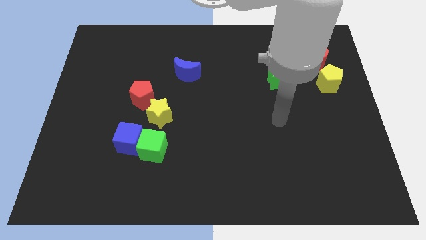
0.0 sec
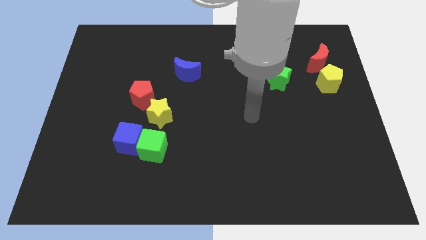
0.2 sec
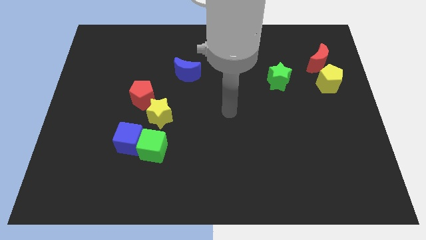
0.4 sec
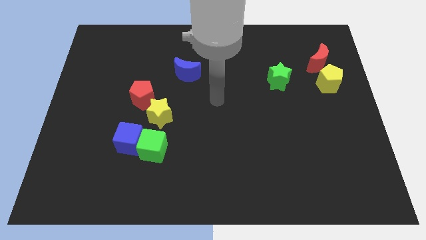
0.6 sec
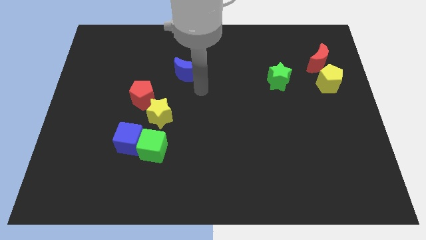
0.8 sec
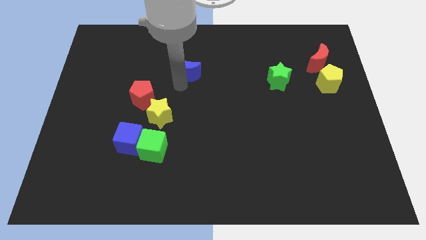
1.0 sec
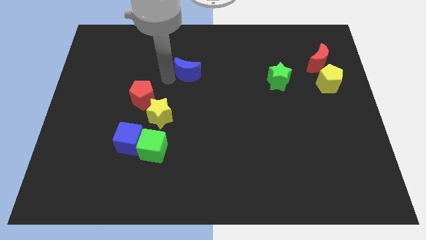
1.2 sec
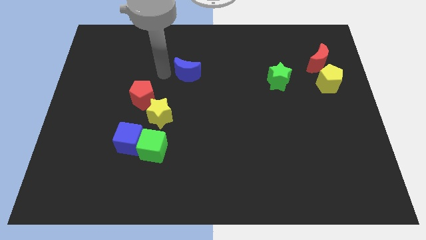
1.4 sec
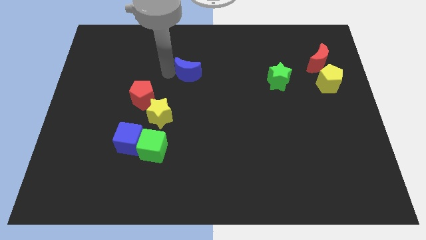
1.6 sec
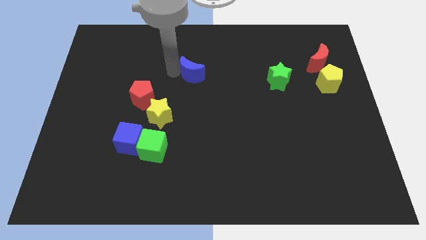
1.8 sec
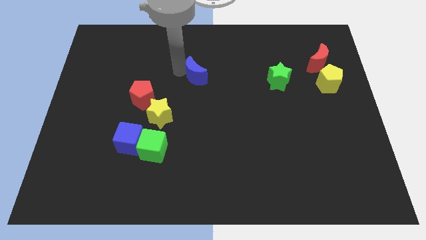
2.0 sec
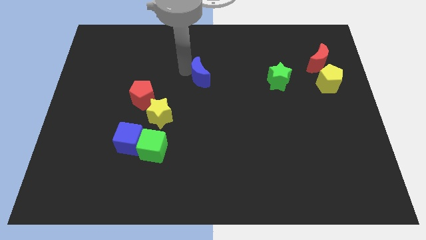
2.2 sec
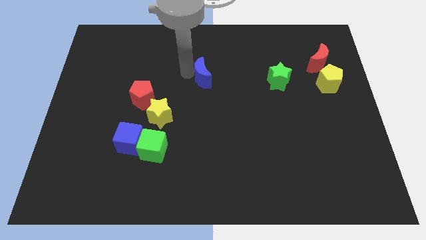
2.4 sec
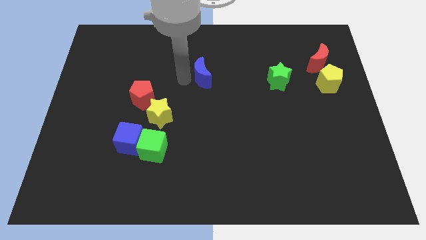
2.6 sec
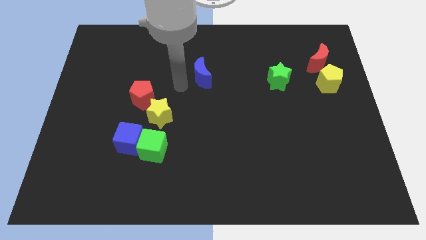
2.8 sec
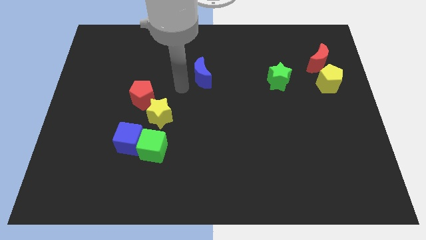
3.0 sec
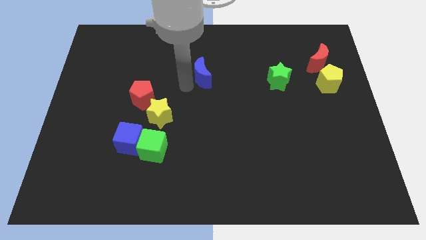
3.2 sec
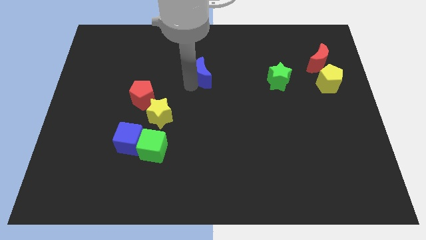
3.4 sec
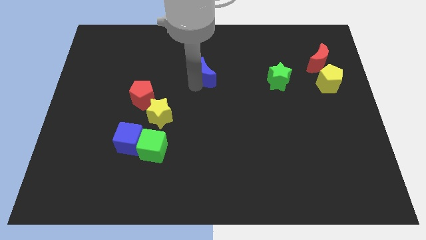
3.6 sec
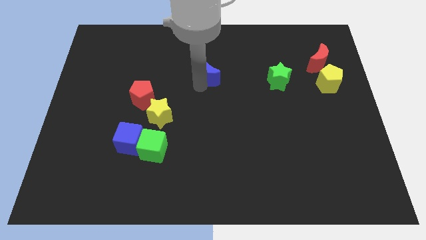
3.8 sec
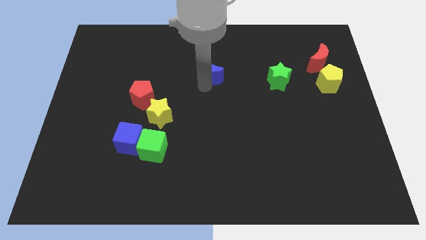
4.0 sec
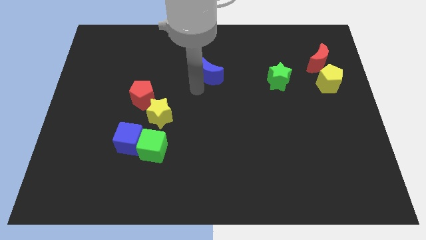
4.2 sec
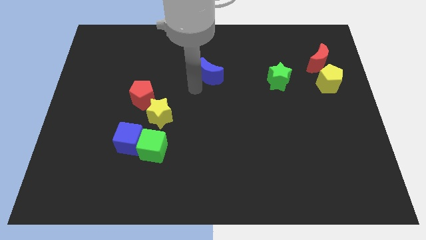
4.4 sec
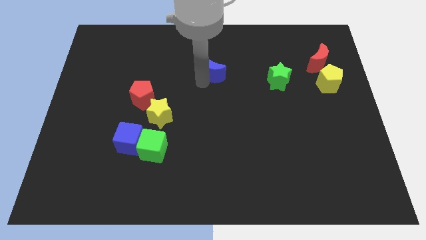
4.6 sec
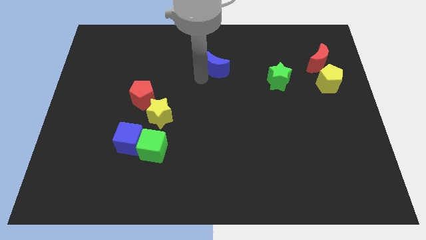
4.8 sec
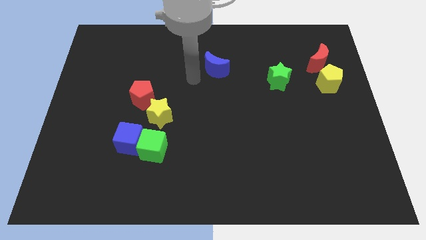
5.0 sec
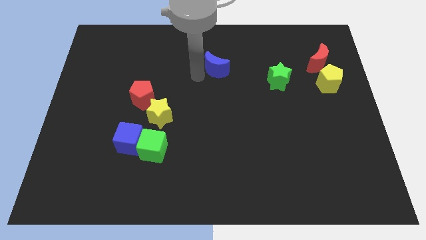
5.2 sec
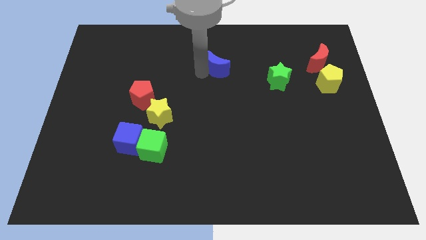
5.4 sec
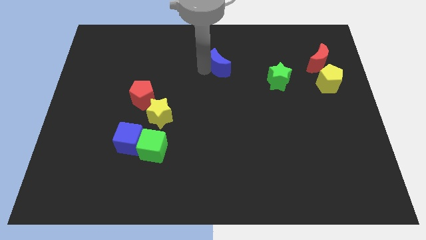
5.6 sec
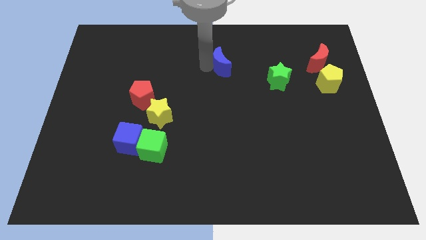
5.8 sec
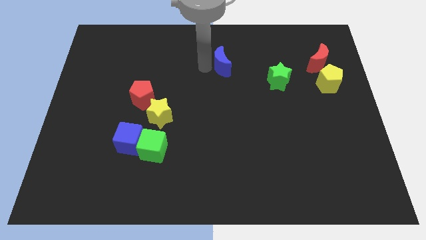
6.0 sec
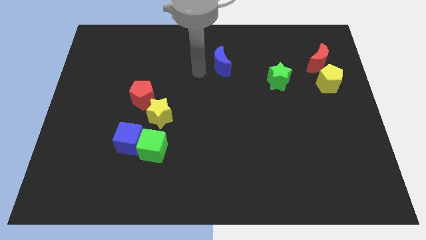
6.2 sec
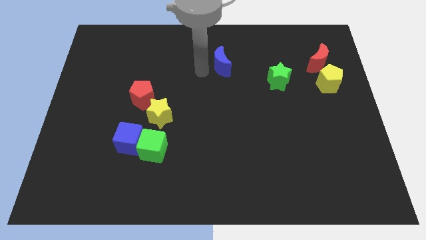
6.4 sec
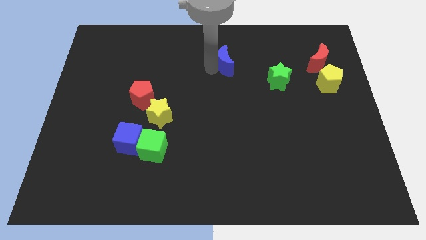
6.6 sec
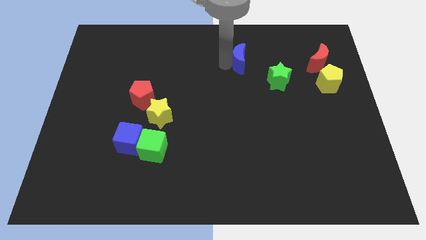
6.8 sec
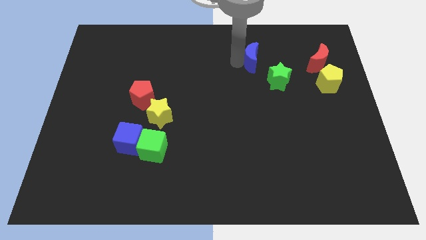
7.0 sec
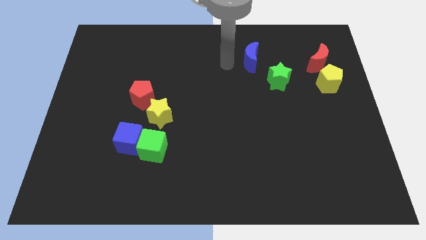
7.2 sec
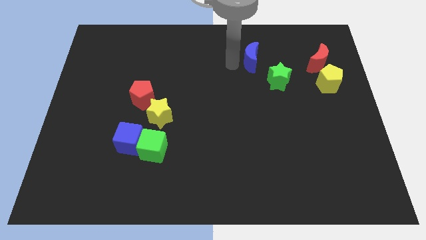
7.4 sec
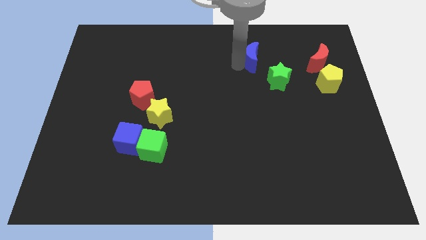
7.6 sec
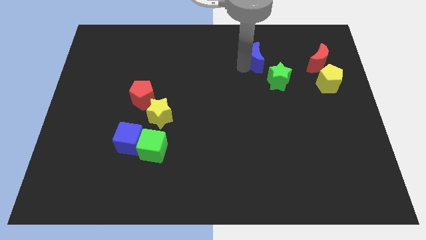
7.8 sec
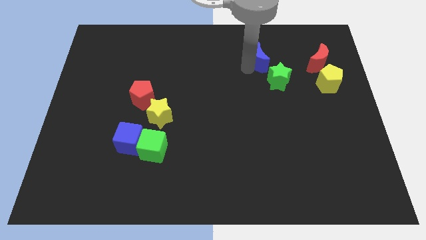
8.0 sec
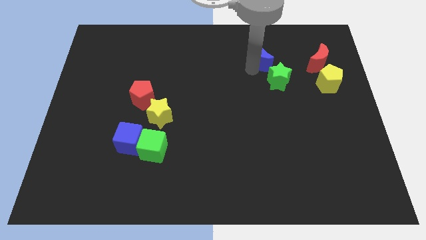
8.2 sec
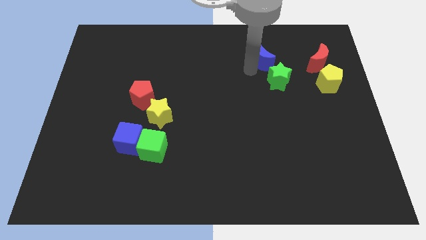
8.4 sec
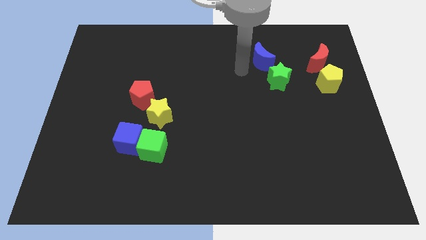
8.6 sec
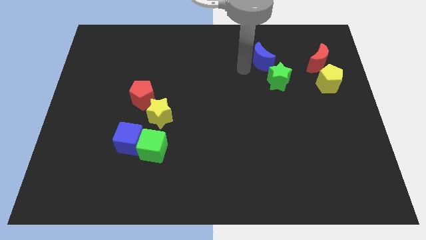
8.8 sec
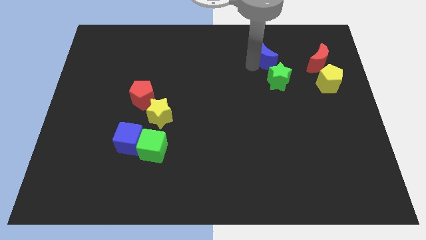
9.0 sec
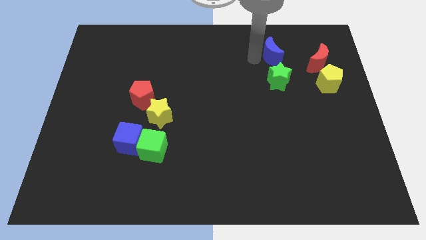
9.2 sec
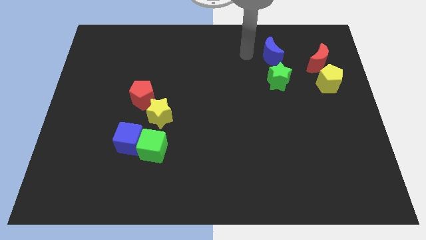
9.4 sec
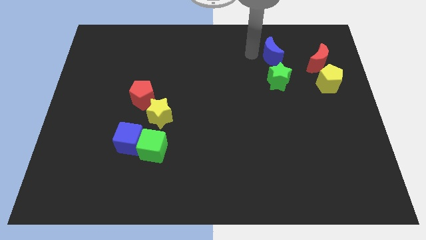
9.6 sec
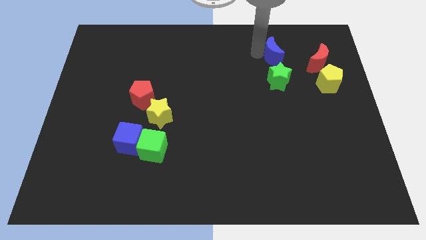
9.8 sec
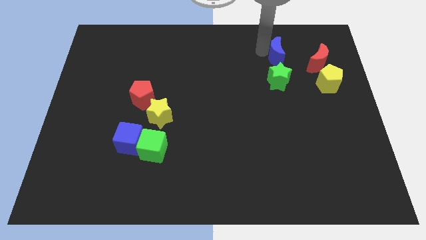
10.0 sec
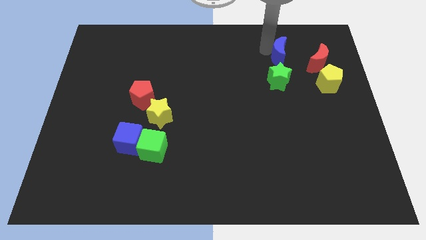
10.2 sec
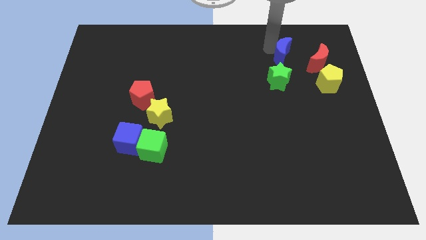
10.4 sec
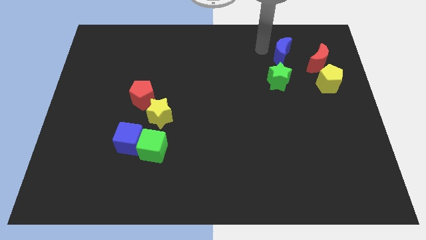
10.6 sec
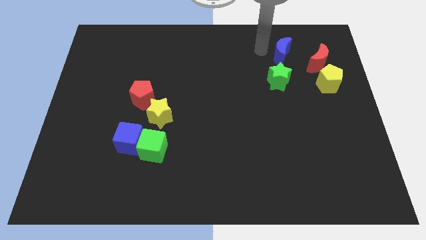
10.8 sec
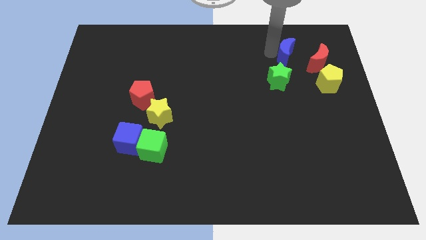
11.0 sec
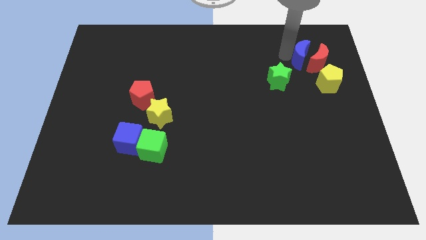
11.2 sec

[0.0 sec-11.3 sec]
put the blue moon close to the red moon

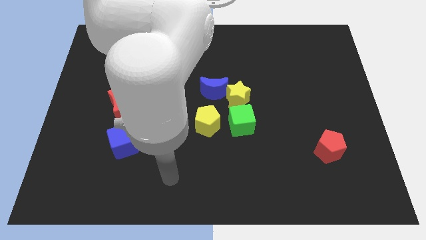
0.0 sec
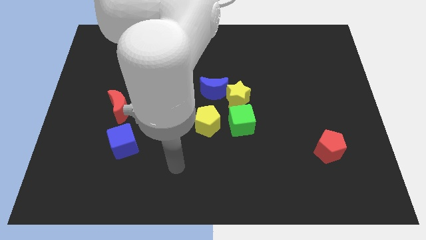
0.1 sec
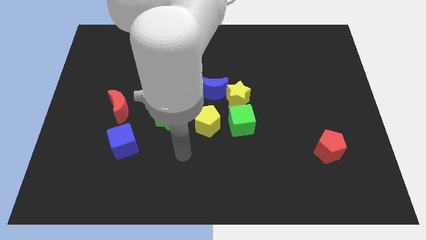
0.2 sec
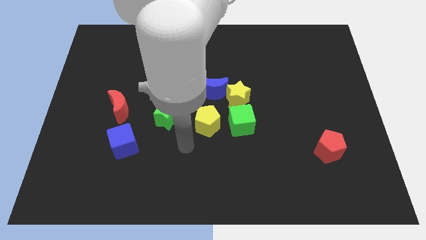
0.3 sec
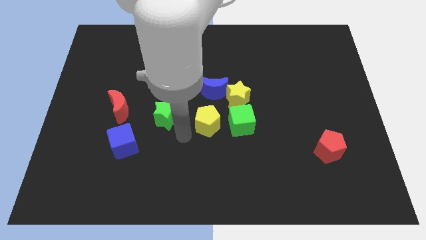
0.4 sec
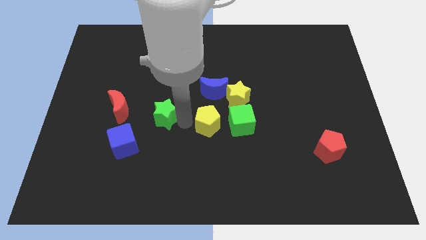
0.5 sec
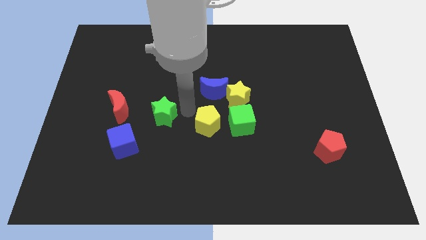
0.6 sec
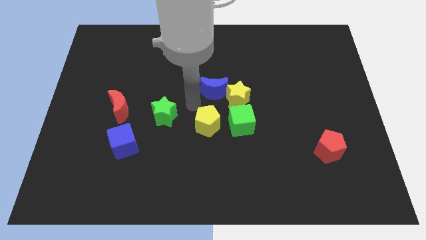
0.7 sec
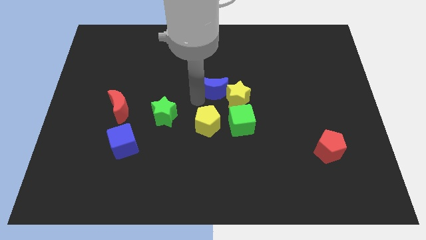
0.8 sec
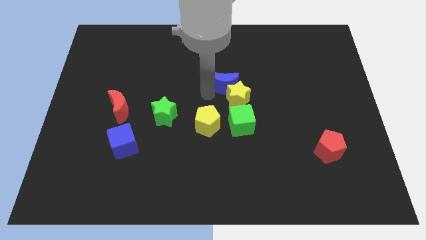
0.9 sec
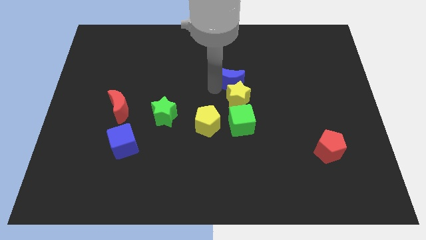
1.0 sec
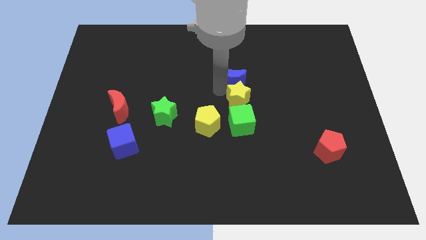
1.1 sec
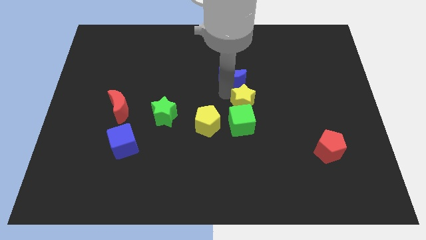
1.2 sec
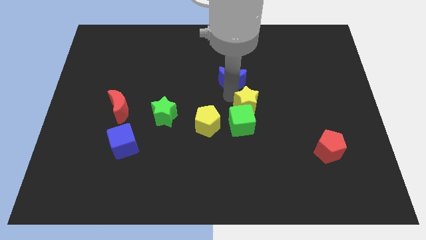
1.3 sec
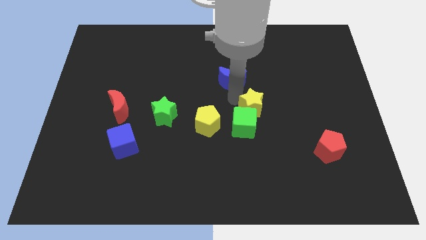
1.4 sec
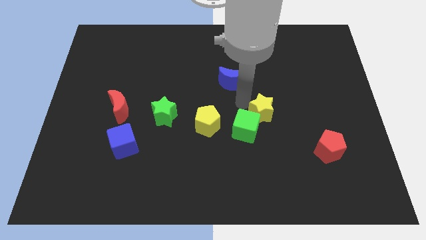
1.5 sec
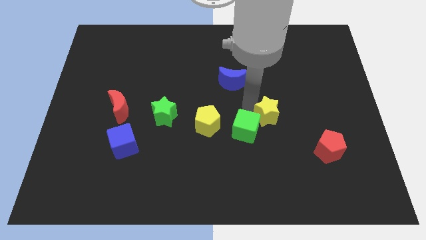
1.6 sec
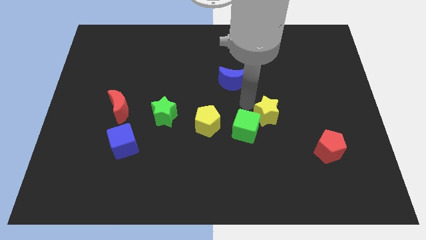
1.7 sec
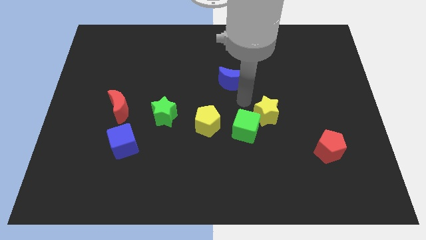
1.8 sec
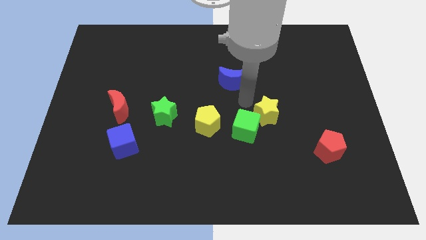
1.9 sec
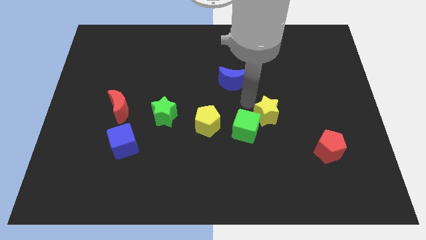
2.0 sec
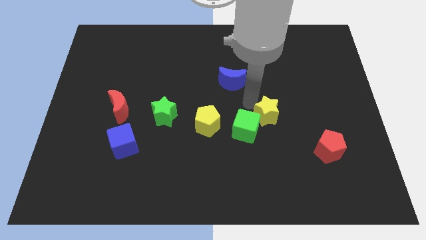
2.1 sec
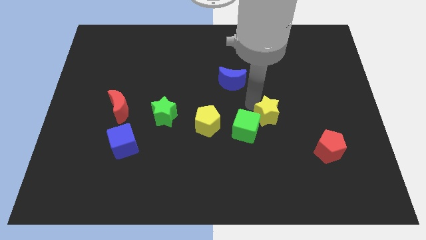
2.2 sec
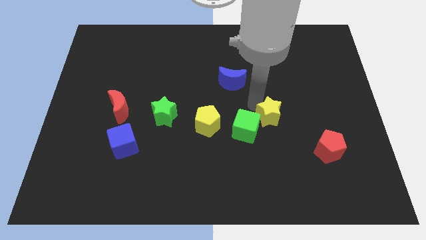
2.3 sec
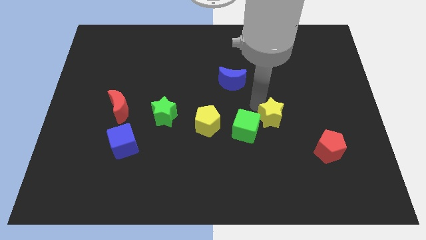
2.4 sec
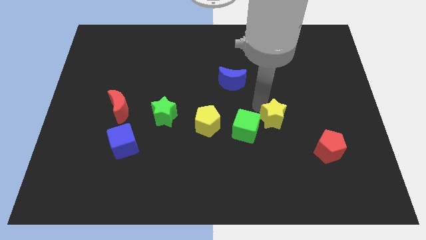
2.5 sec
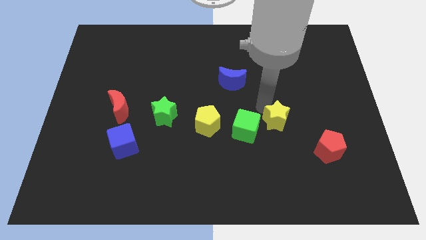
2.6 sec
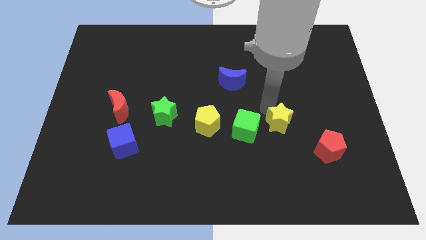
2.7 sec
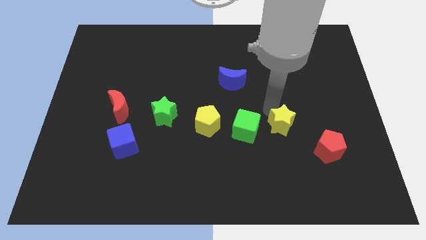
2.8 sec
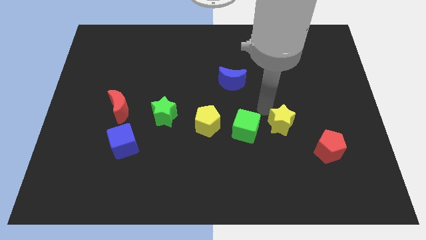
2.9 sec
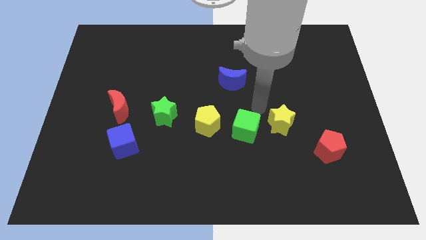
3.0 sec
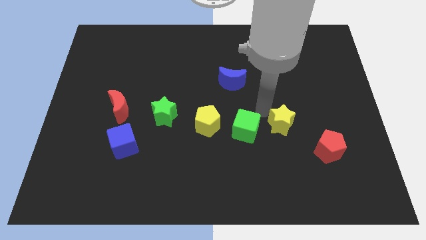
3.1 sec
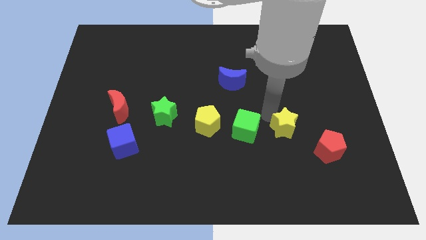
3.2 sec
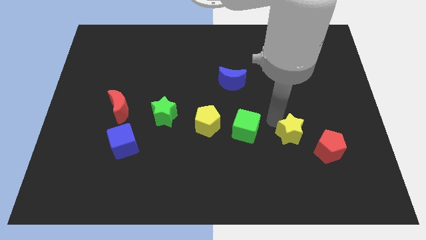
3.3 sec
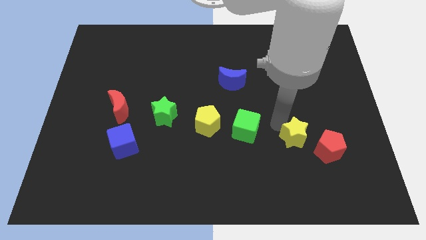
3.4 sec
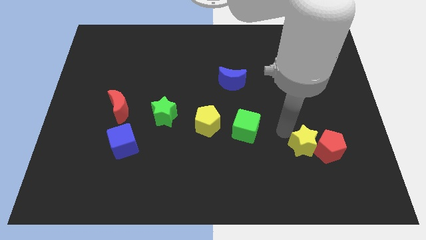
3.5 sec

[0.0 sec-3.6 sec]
put the yellow star to the red pentagon
